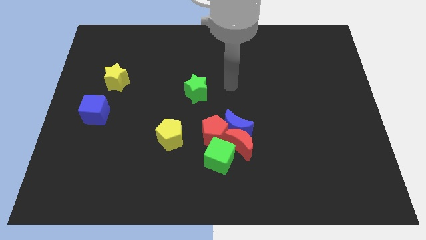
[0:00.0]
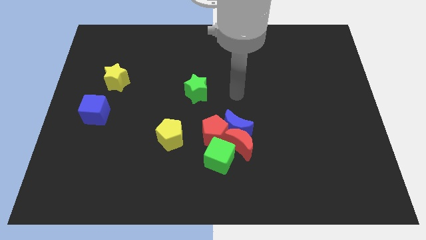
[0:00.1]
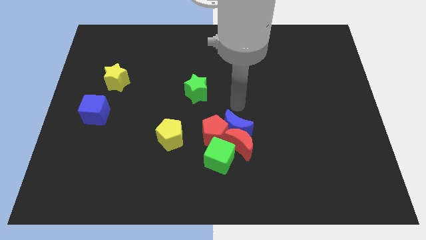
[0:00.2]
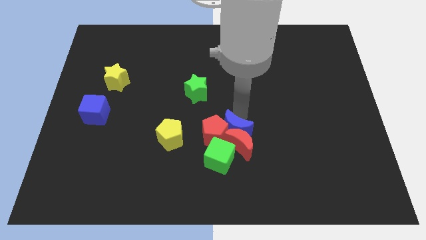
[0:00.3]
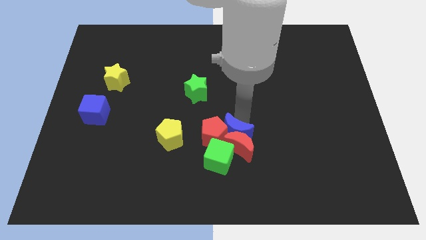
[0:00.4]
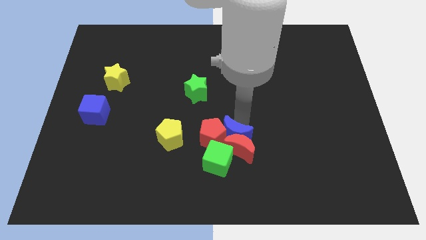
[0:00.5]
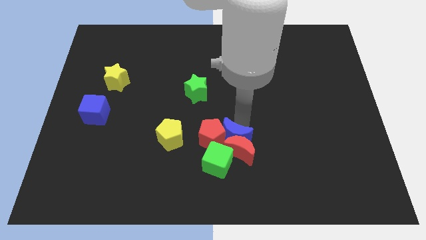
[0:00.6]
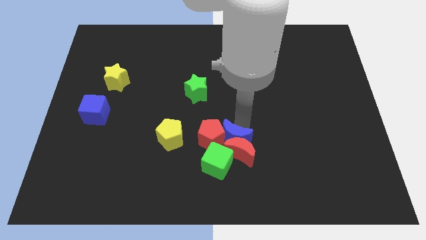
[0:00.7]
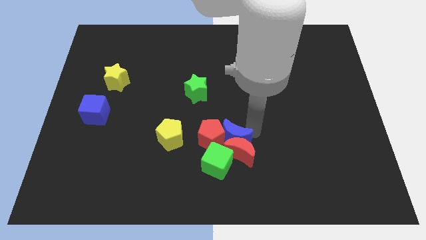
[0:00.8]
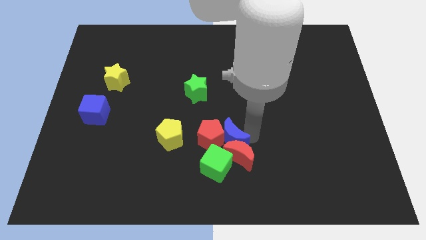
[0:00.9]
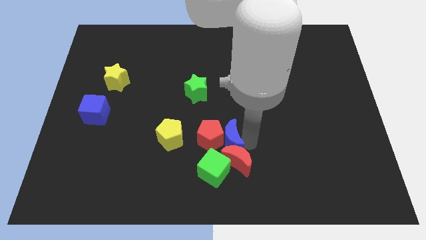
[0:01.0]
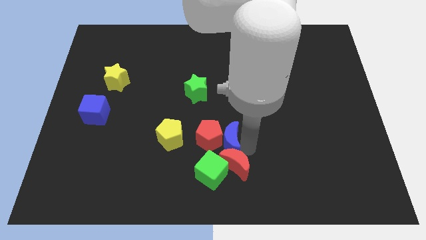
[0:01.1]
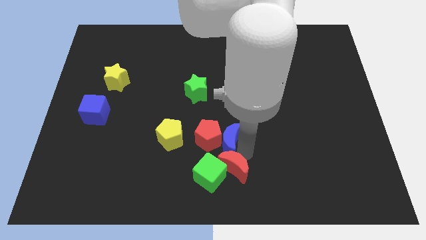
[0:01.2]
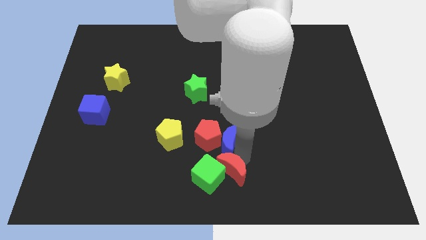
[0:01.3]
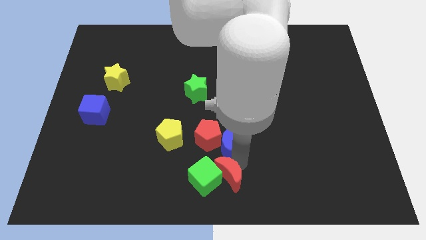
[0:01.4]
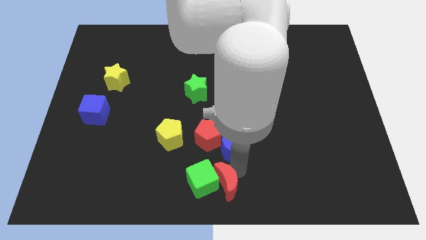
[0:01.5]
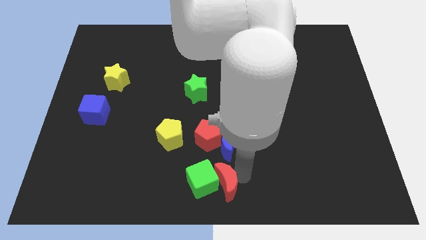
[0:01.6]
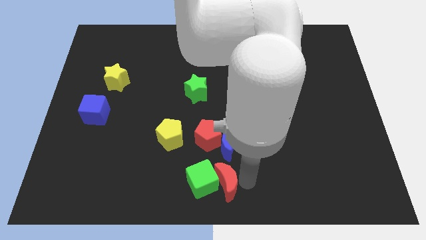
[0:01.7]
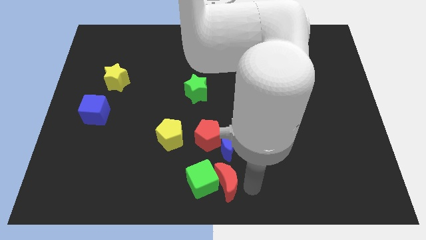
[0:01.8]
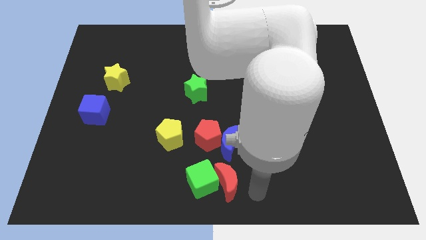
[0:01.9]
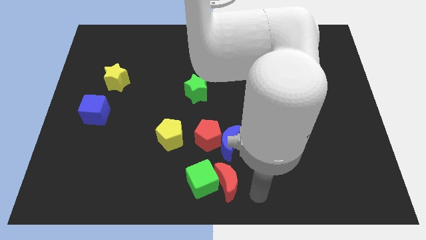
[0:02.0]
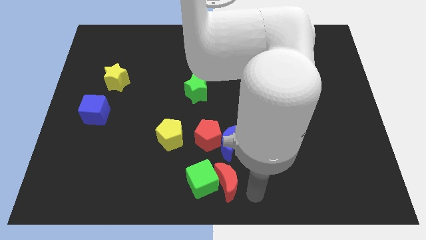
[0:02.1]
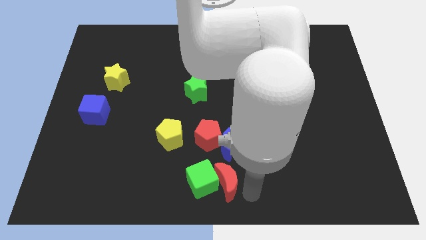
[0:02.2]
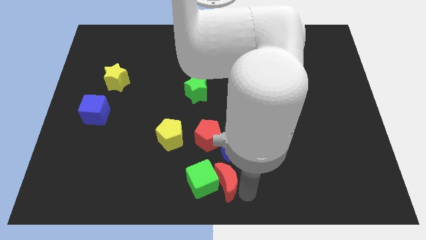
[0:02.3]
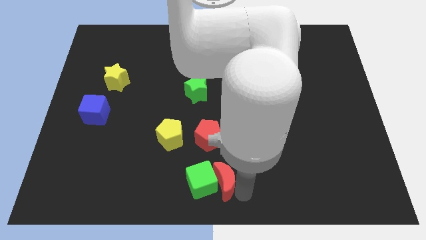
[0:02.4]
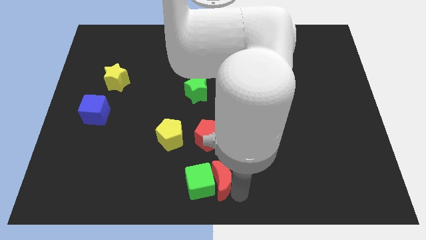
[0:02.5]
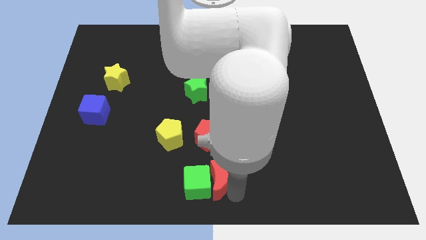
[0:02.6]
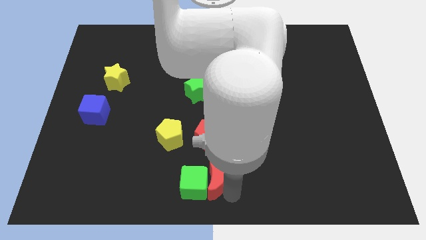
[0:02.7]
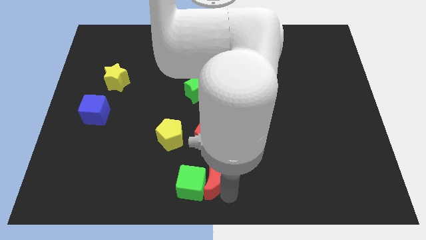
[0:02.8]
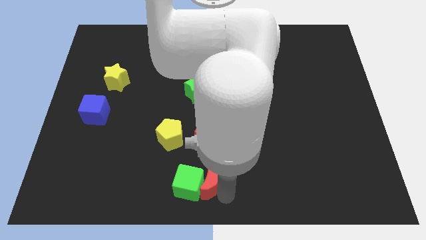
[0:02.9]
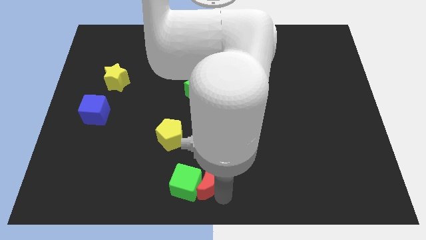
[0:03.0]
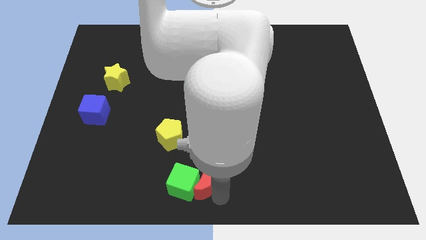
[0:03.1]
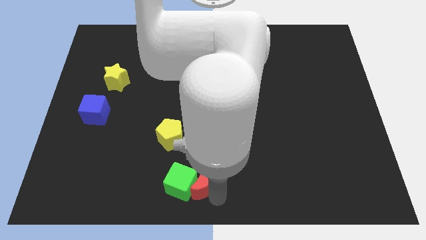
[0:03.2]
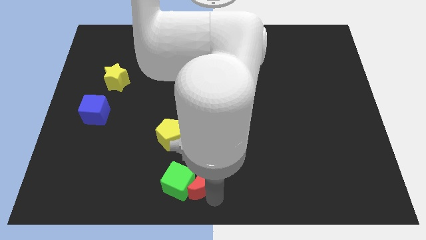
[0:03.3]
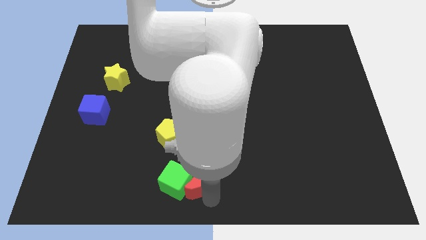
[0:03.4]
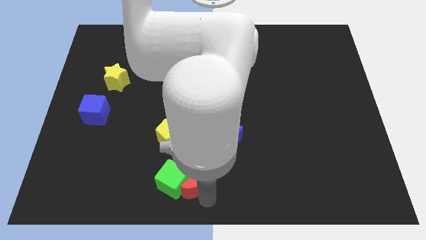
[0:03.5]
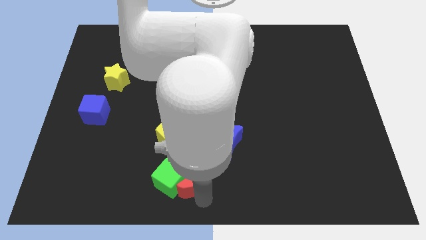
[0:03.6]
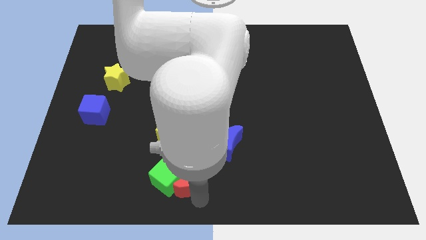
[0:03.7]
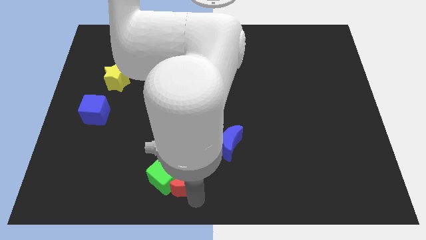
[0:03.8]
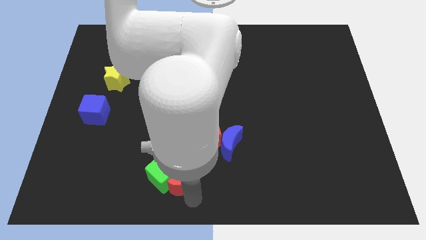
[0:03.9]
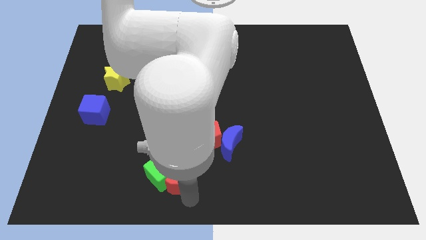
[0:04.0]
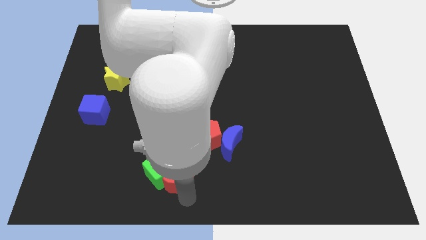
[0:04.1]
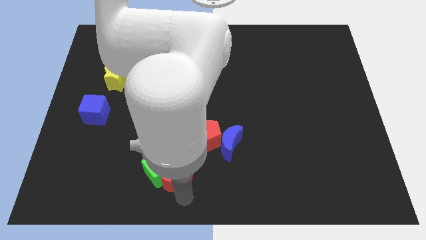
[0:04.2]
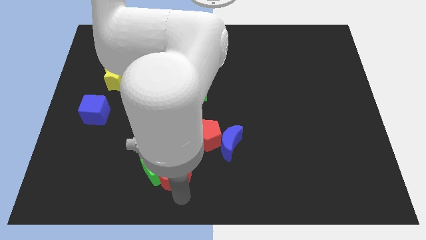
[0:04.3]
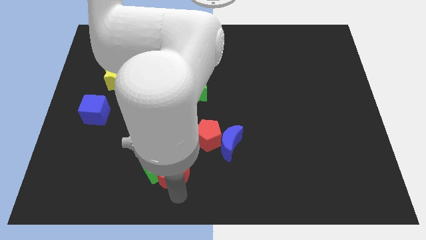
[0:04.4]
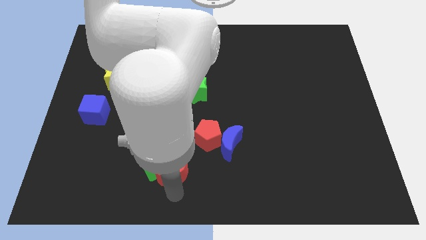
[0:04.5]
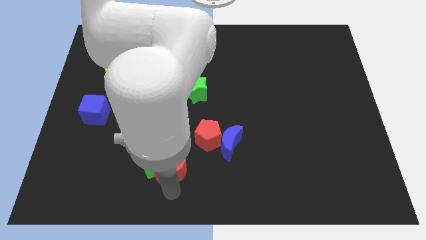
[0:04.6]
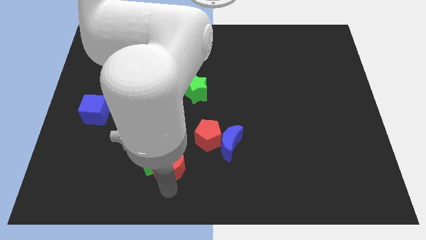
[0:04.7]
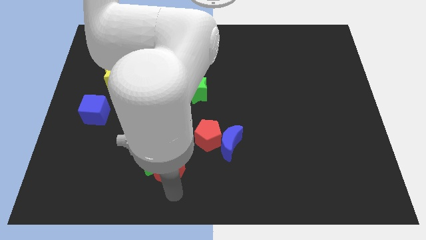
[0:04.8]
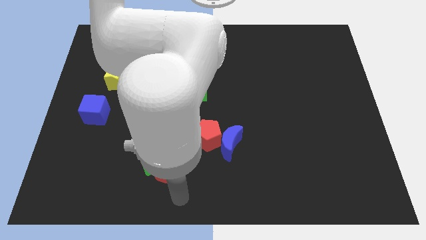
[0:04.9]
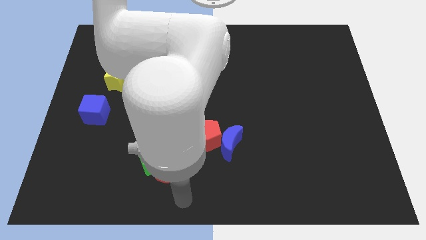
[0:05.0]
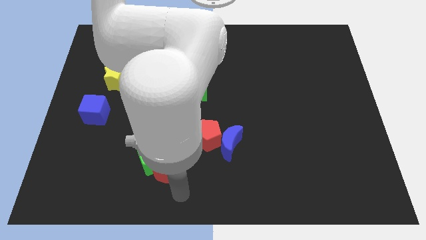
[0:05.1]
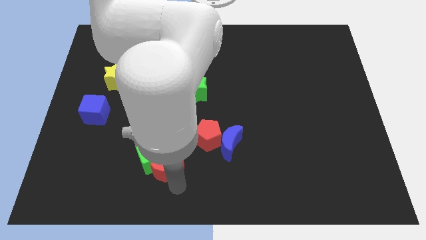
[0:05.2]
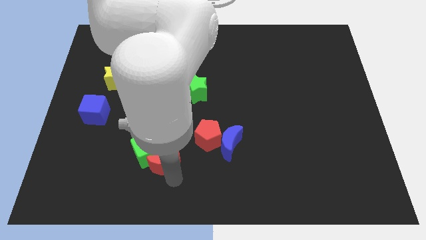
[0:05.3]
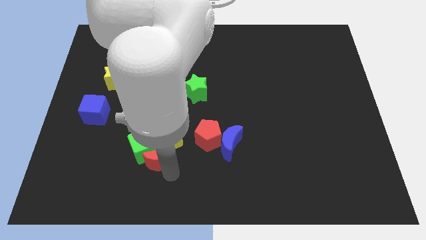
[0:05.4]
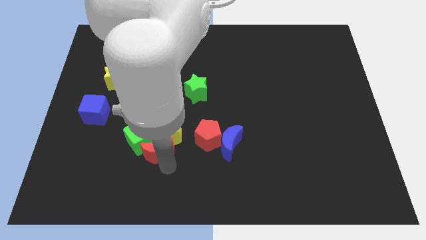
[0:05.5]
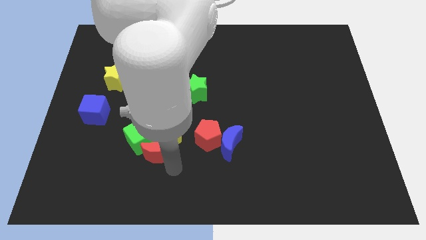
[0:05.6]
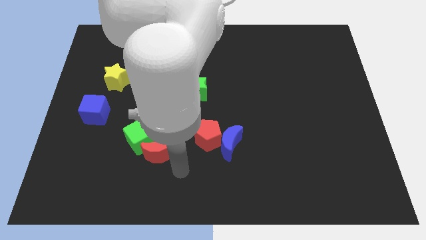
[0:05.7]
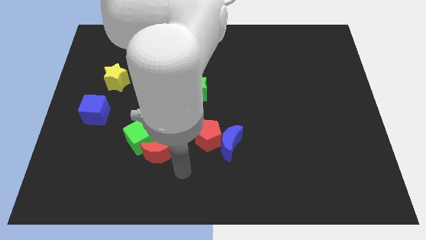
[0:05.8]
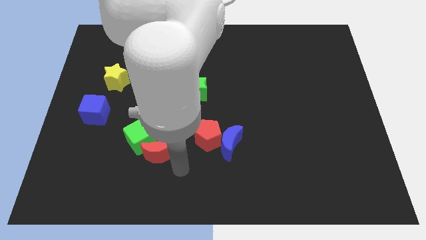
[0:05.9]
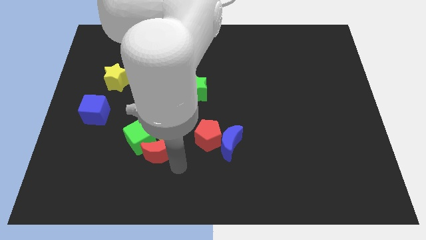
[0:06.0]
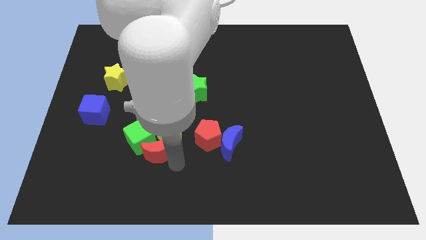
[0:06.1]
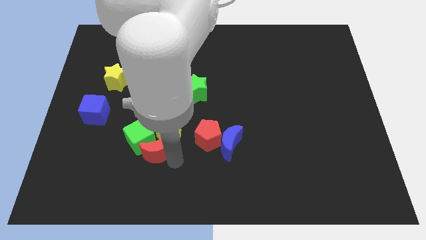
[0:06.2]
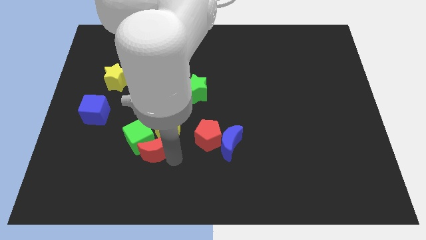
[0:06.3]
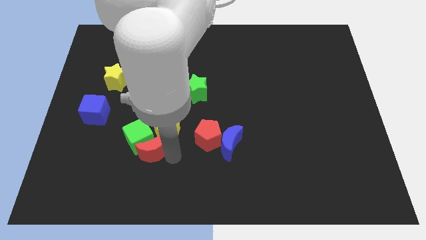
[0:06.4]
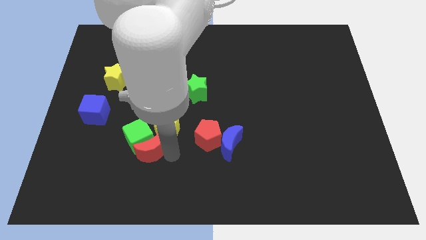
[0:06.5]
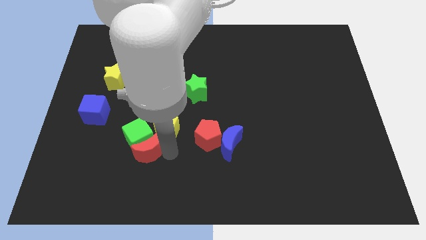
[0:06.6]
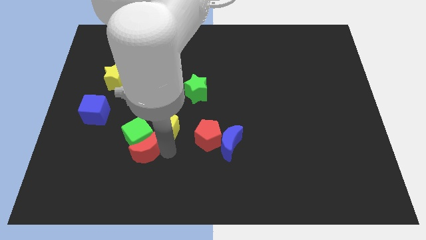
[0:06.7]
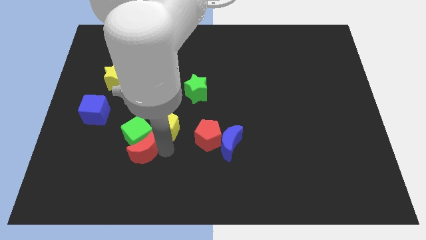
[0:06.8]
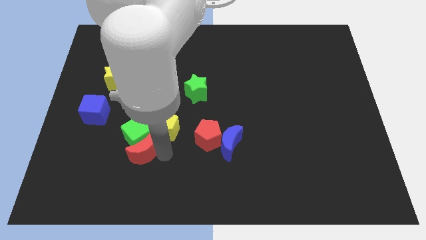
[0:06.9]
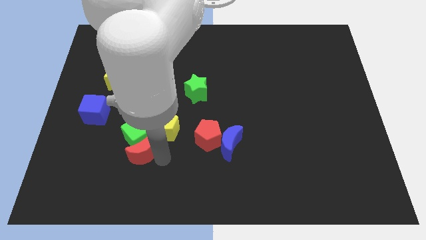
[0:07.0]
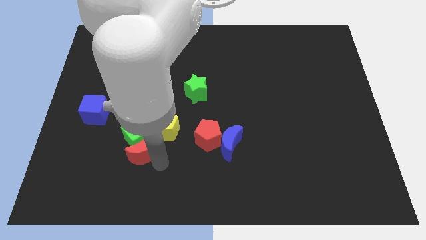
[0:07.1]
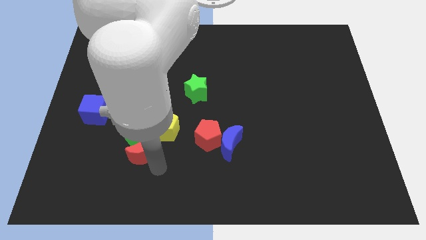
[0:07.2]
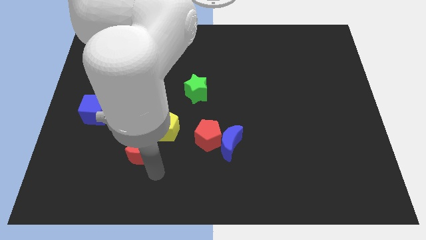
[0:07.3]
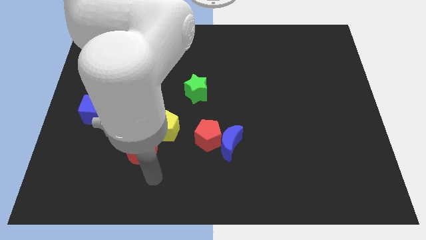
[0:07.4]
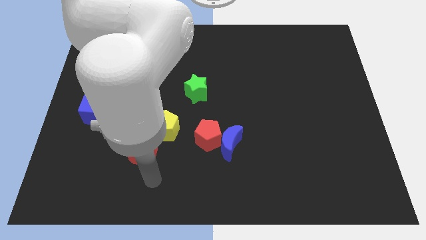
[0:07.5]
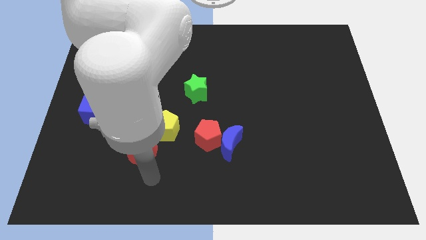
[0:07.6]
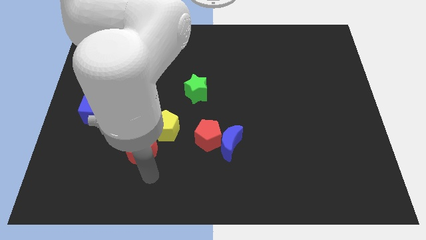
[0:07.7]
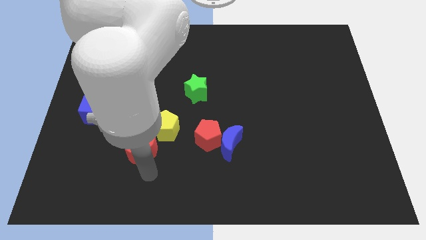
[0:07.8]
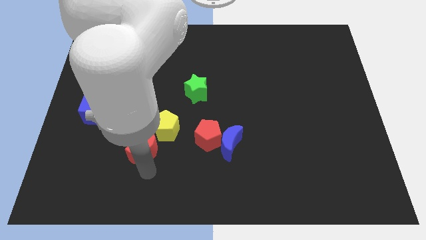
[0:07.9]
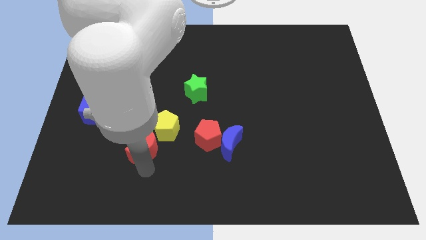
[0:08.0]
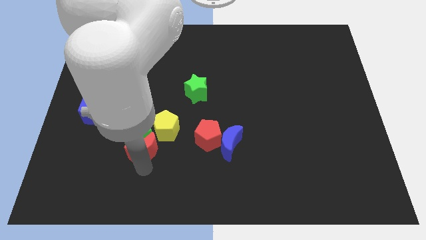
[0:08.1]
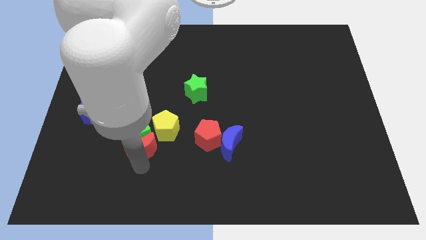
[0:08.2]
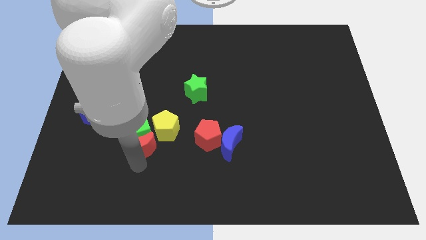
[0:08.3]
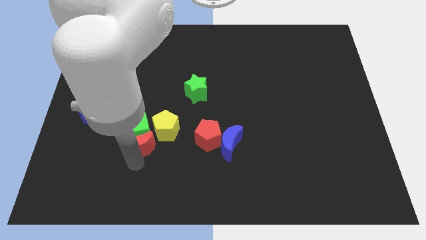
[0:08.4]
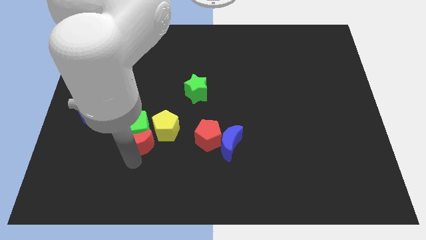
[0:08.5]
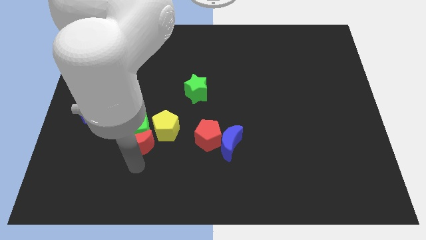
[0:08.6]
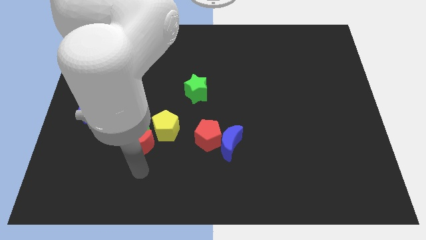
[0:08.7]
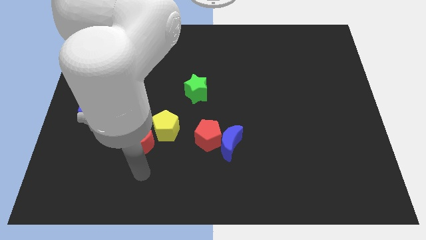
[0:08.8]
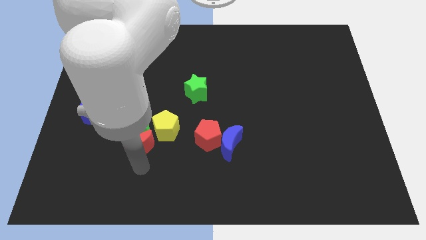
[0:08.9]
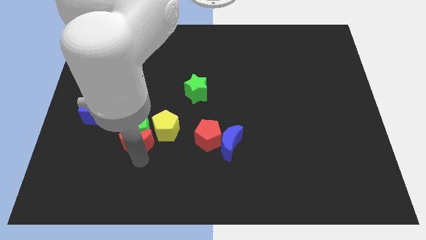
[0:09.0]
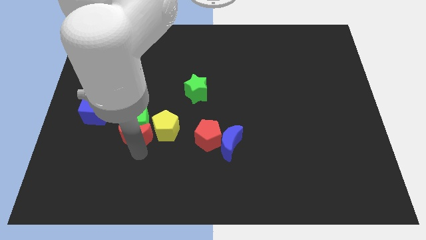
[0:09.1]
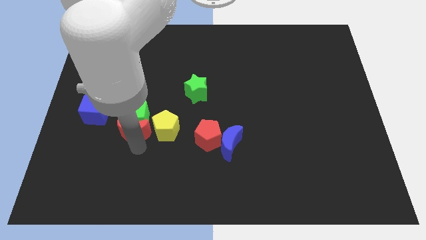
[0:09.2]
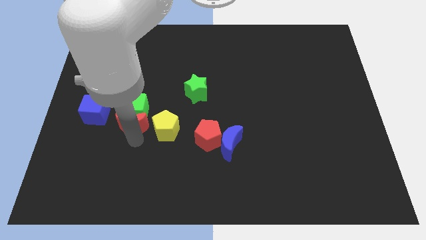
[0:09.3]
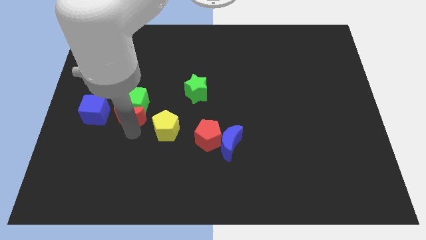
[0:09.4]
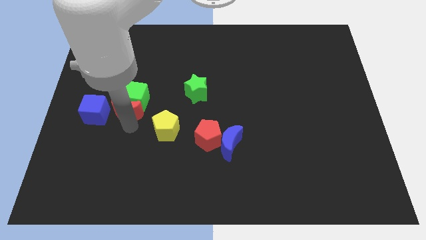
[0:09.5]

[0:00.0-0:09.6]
move the red moon to the bottom right side of the yellow star
